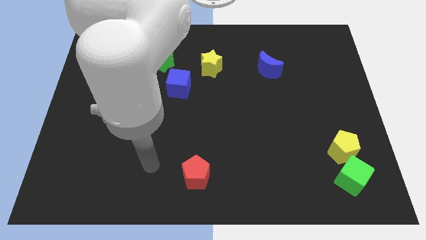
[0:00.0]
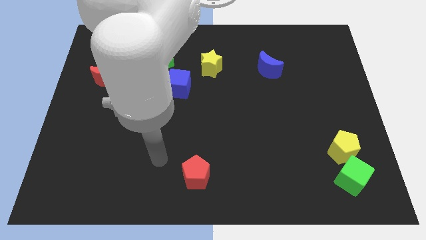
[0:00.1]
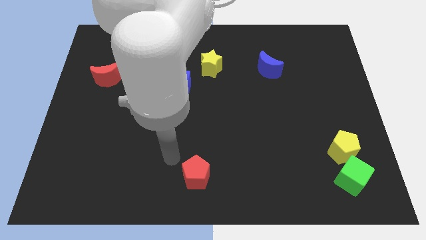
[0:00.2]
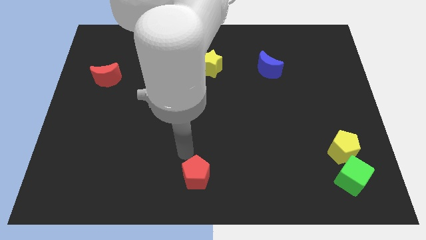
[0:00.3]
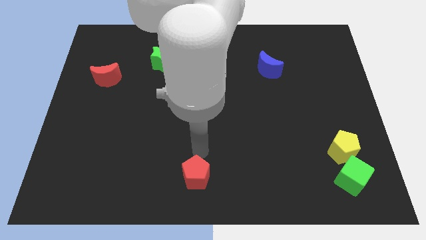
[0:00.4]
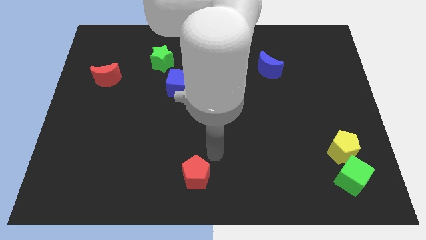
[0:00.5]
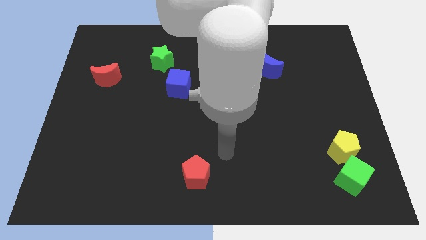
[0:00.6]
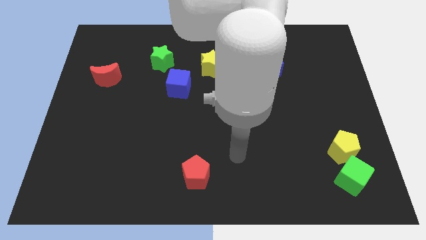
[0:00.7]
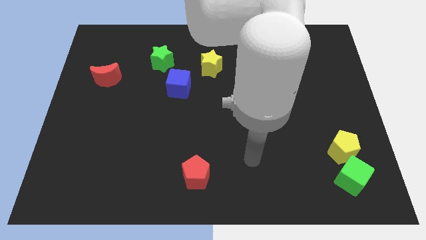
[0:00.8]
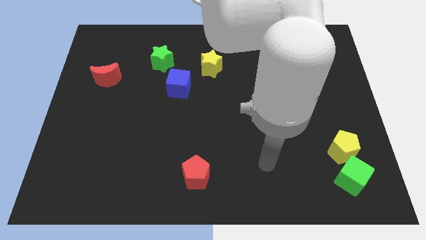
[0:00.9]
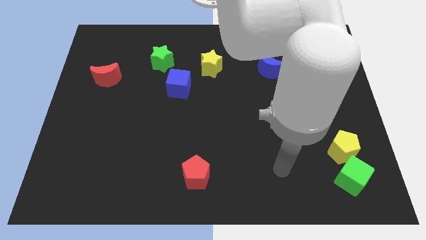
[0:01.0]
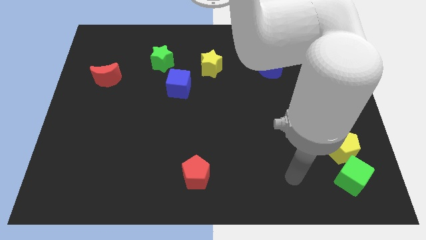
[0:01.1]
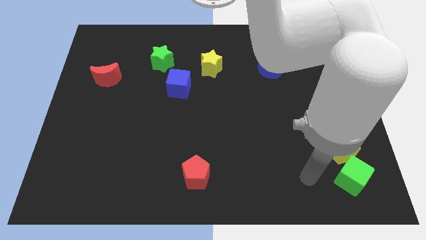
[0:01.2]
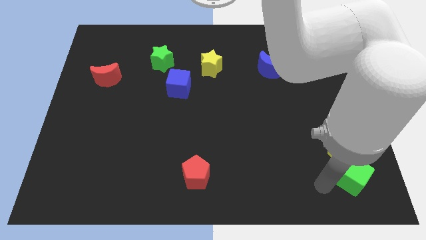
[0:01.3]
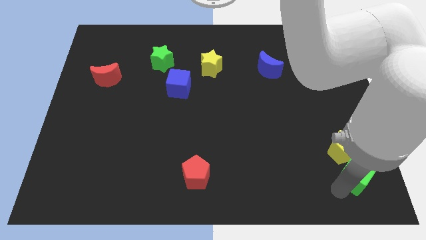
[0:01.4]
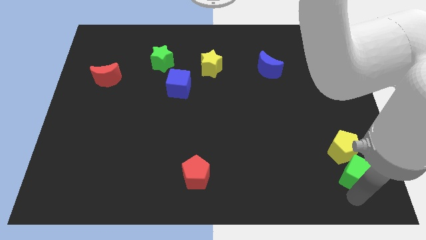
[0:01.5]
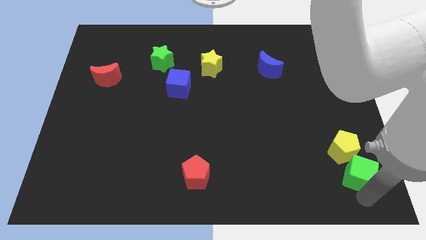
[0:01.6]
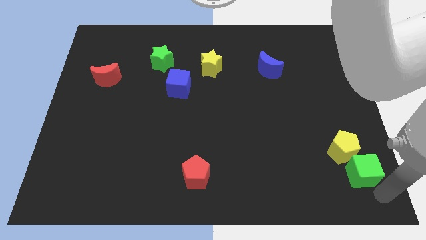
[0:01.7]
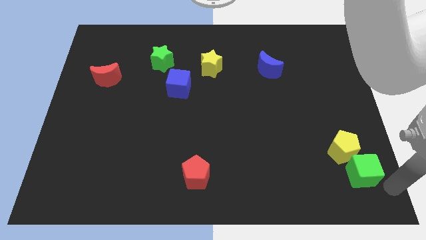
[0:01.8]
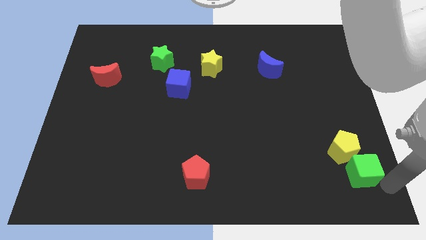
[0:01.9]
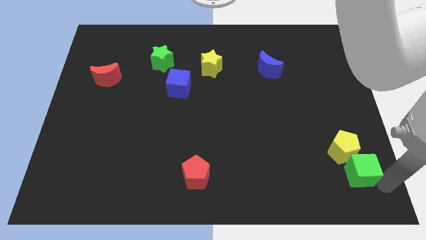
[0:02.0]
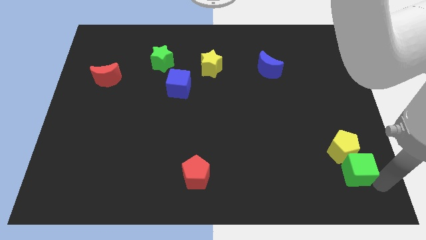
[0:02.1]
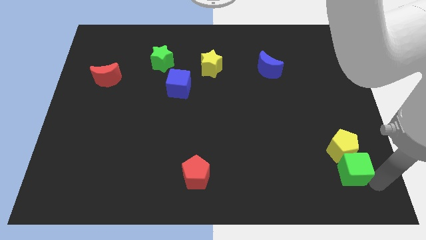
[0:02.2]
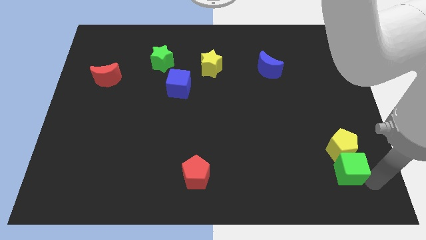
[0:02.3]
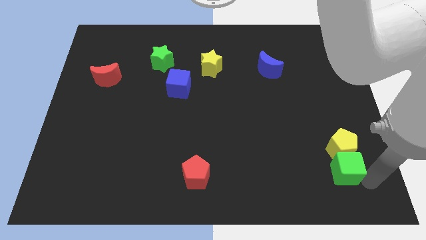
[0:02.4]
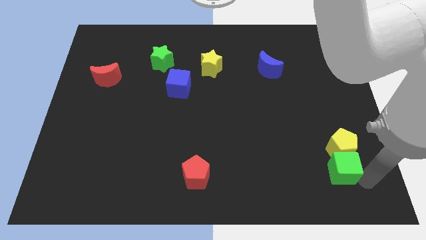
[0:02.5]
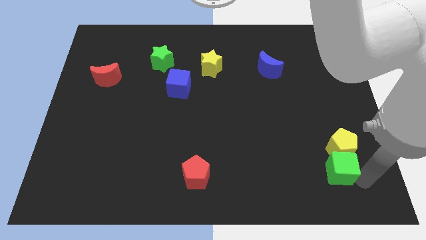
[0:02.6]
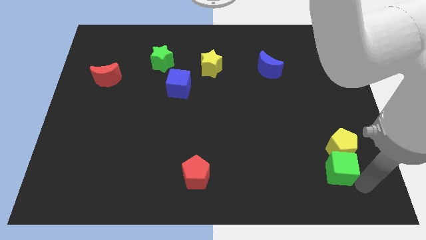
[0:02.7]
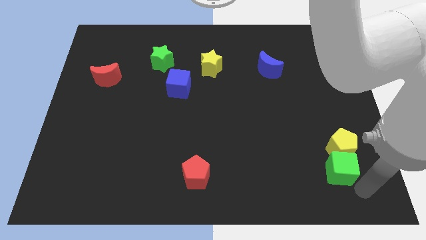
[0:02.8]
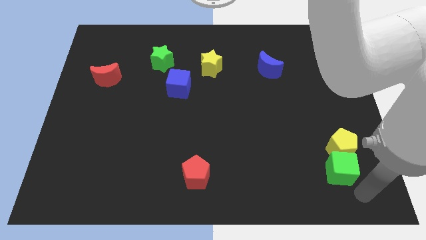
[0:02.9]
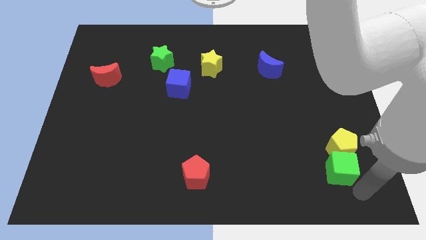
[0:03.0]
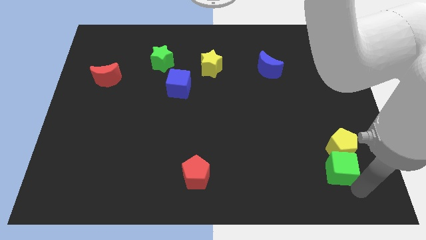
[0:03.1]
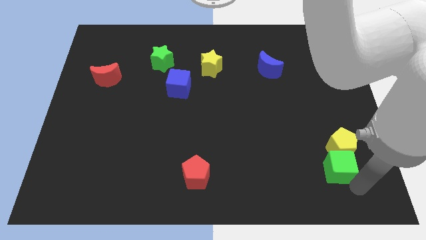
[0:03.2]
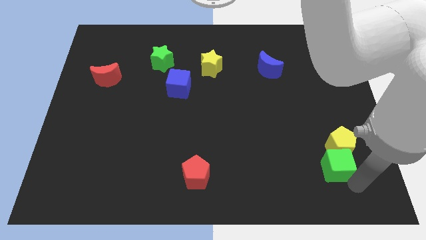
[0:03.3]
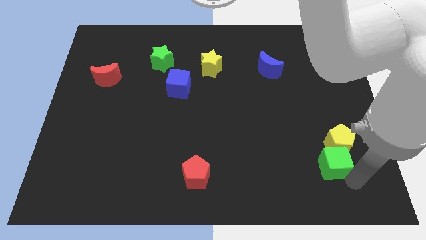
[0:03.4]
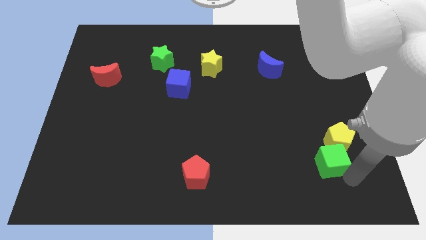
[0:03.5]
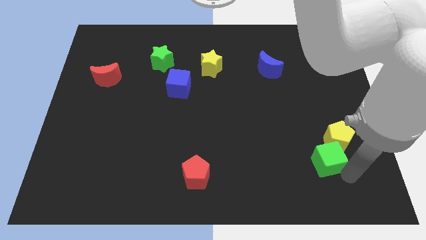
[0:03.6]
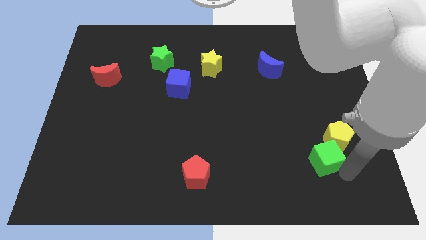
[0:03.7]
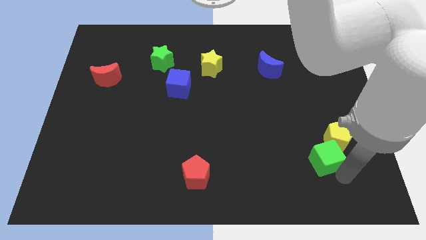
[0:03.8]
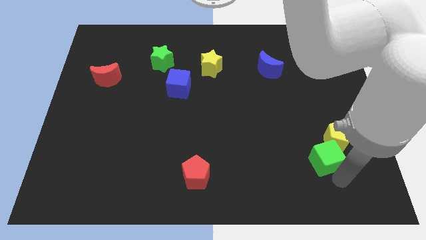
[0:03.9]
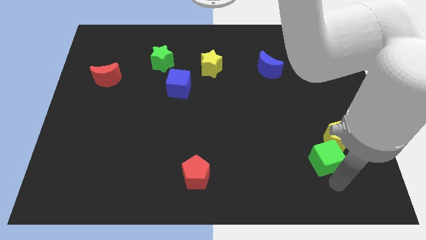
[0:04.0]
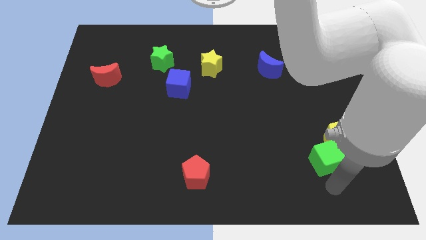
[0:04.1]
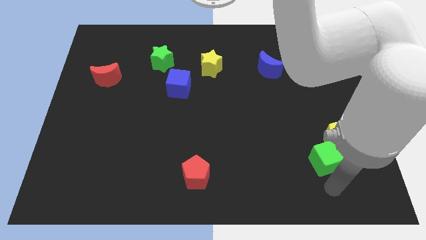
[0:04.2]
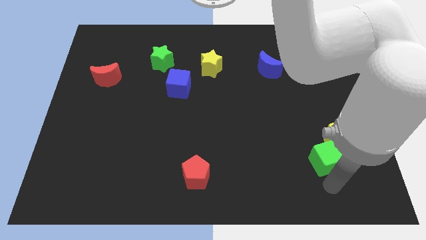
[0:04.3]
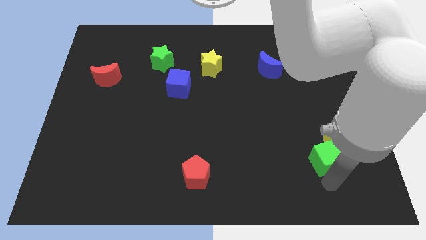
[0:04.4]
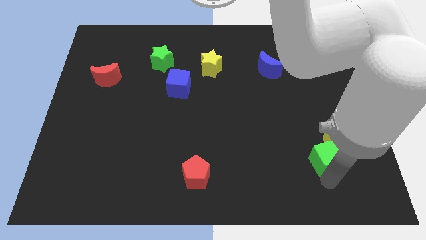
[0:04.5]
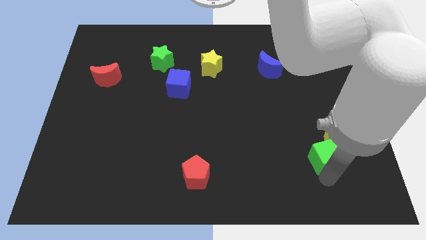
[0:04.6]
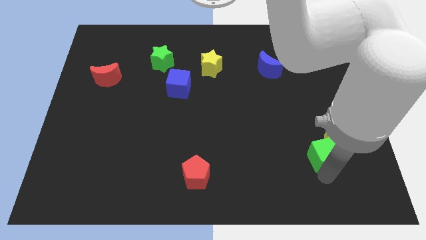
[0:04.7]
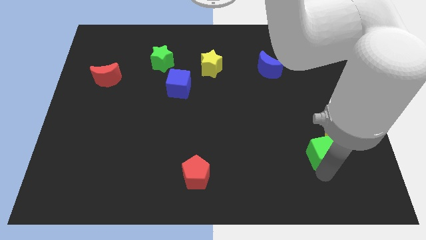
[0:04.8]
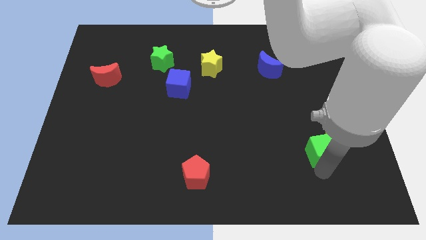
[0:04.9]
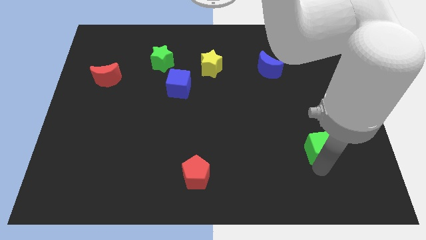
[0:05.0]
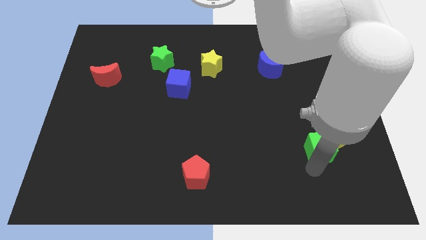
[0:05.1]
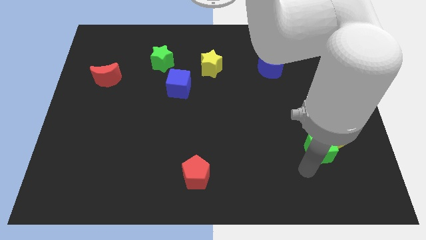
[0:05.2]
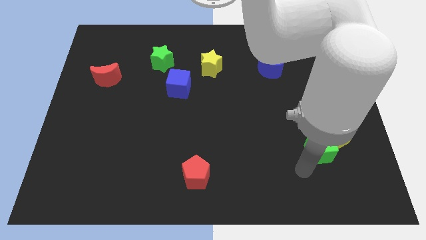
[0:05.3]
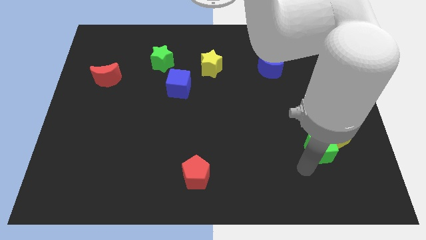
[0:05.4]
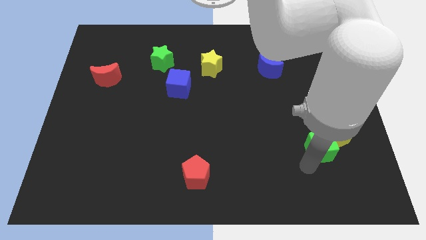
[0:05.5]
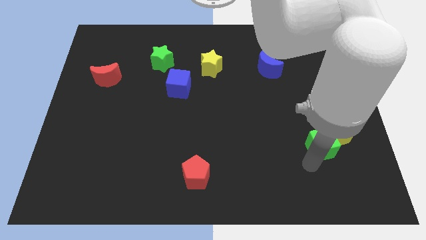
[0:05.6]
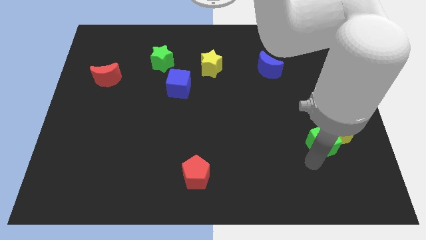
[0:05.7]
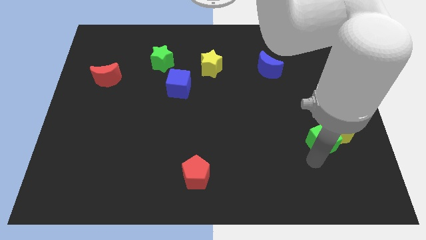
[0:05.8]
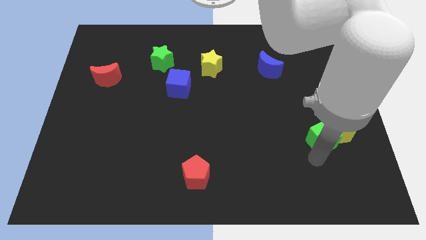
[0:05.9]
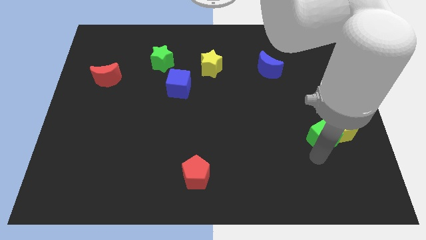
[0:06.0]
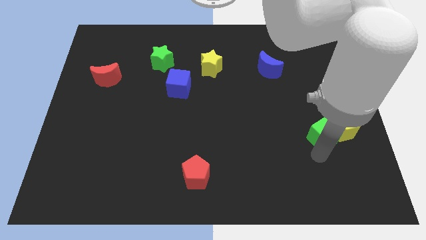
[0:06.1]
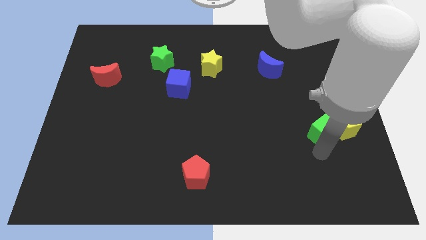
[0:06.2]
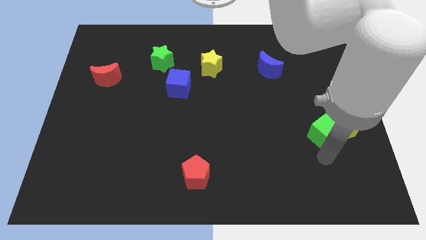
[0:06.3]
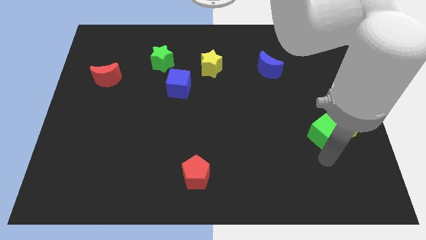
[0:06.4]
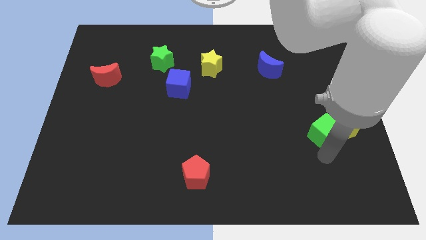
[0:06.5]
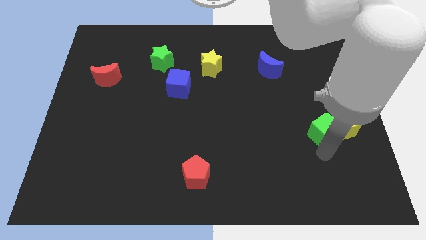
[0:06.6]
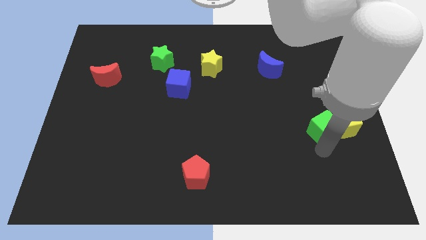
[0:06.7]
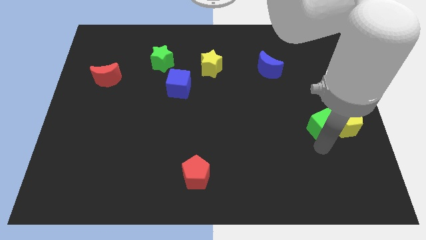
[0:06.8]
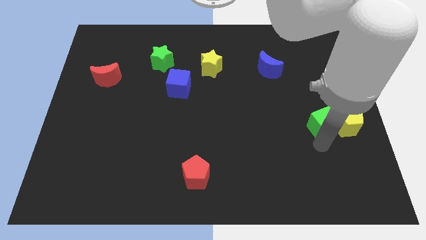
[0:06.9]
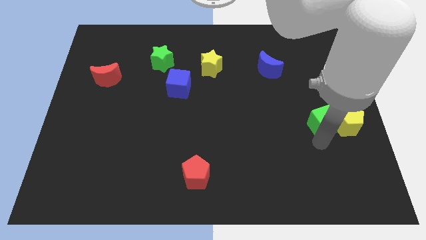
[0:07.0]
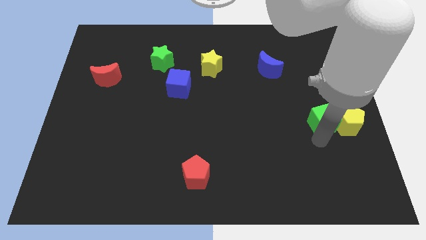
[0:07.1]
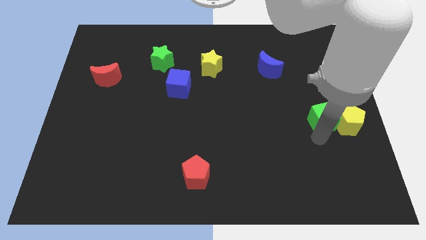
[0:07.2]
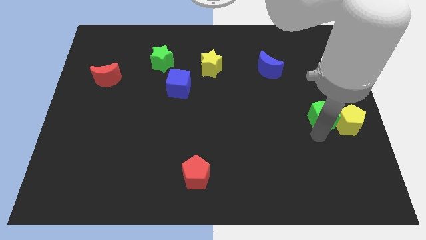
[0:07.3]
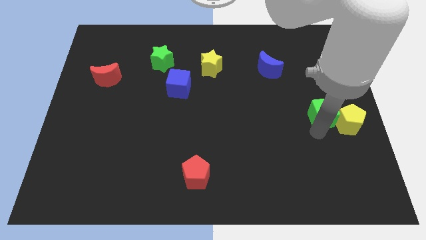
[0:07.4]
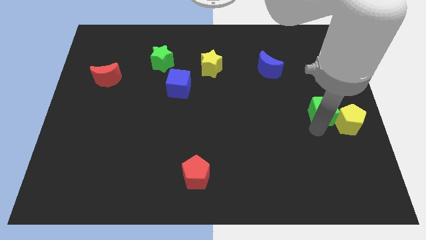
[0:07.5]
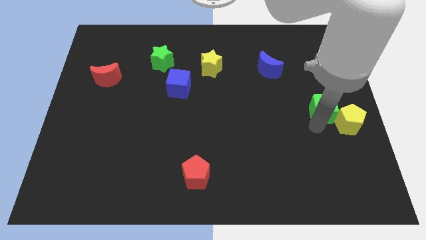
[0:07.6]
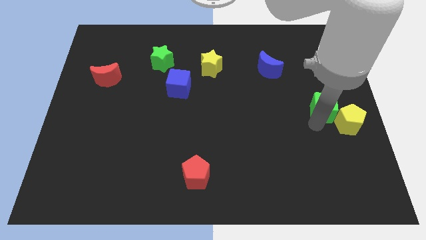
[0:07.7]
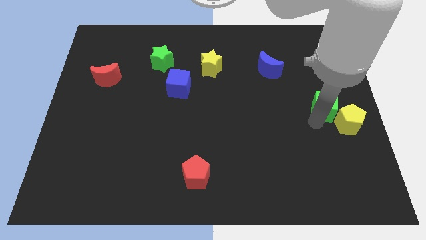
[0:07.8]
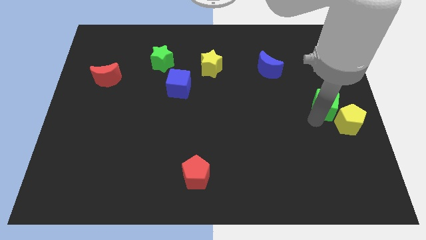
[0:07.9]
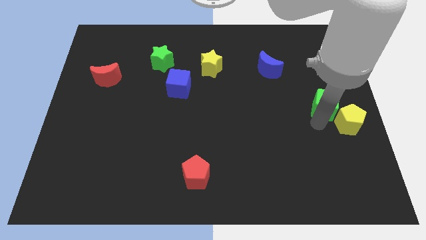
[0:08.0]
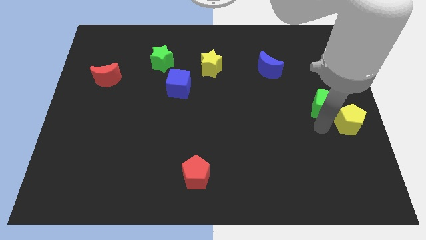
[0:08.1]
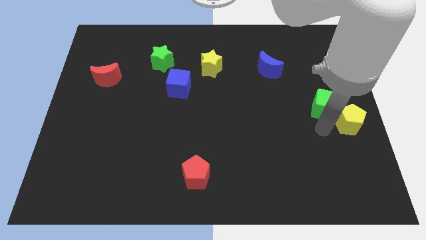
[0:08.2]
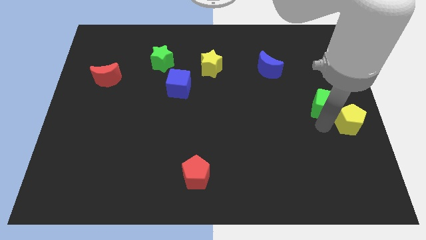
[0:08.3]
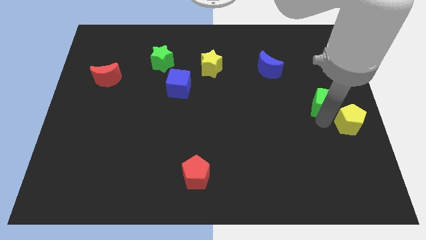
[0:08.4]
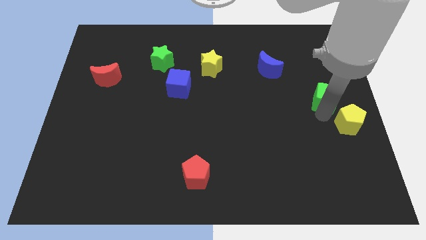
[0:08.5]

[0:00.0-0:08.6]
push the green cube upwards
